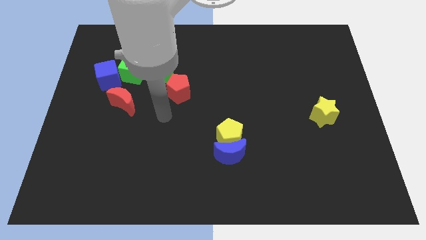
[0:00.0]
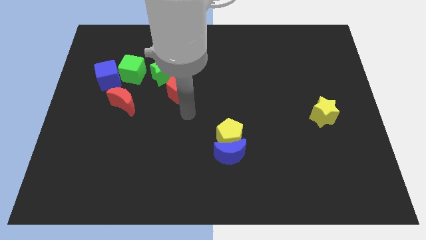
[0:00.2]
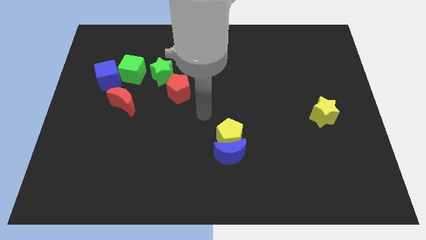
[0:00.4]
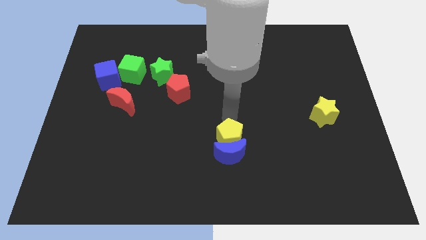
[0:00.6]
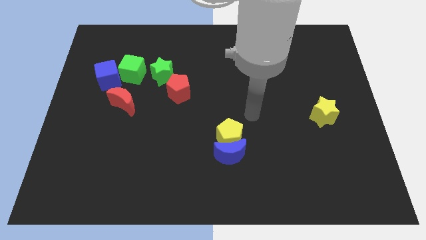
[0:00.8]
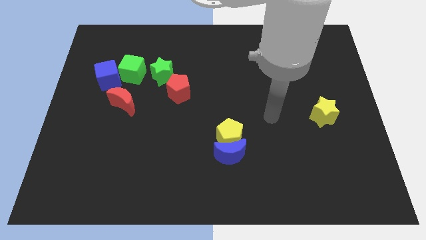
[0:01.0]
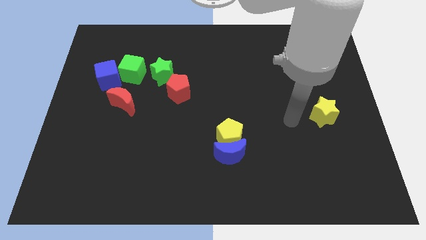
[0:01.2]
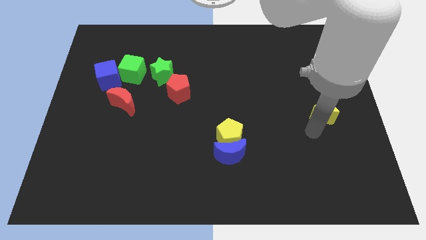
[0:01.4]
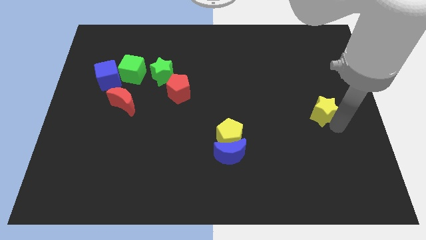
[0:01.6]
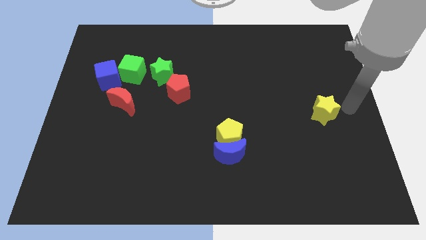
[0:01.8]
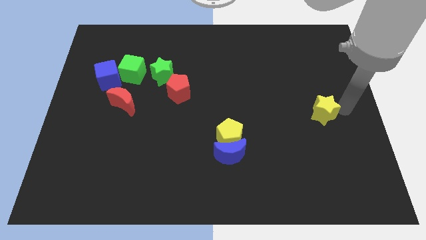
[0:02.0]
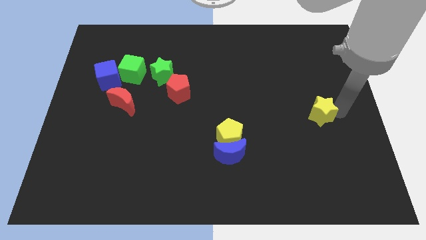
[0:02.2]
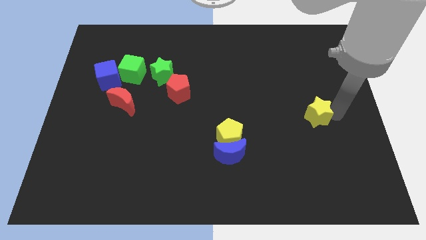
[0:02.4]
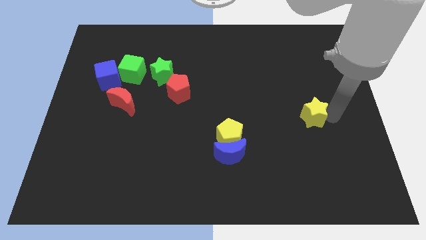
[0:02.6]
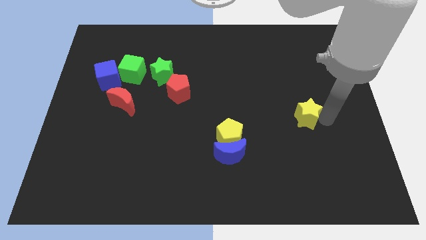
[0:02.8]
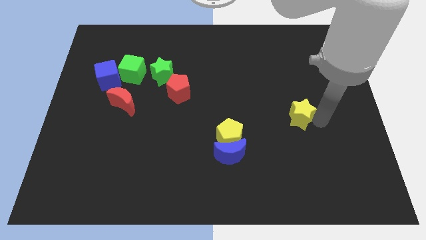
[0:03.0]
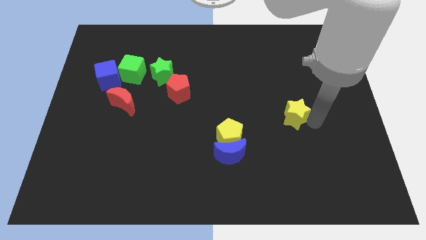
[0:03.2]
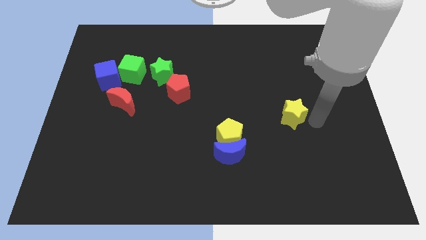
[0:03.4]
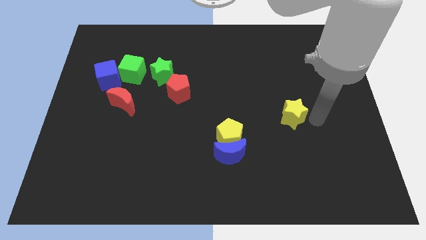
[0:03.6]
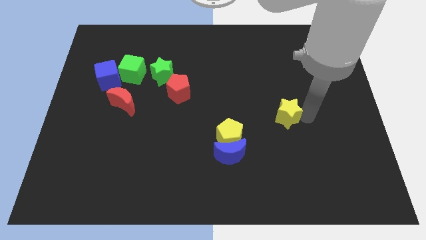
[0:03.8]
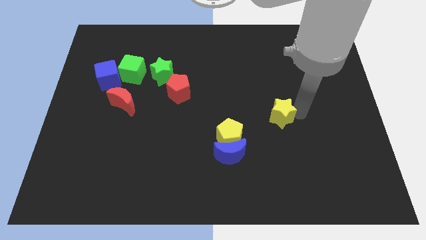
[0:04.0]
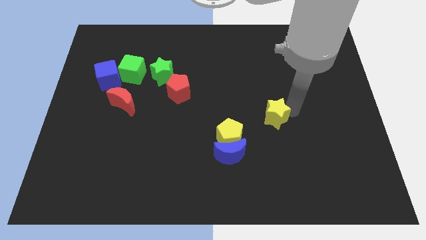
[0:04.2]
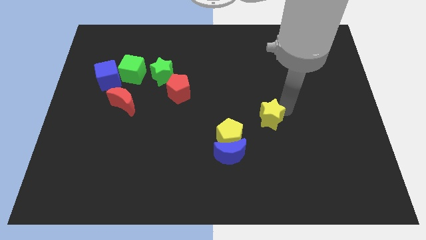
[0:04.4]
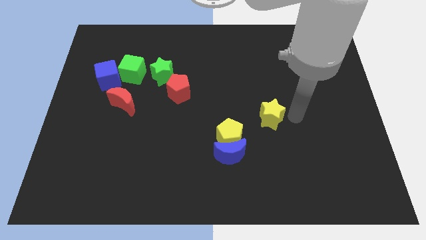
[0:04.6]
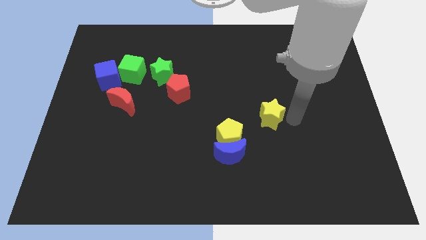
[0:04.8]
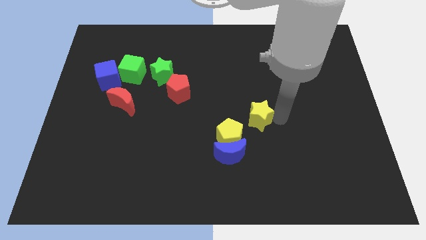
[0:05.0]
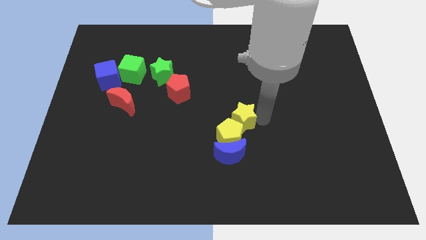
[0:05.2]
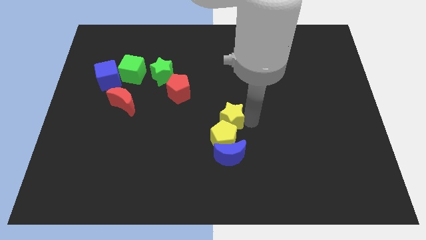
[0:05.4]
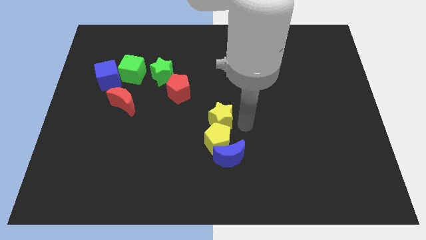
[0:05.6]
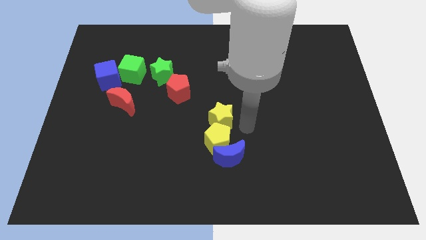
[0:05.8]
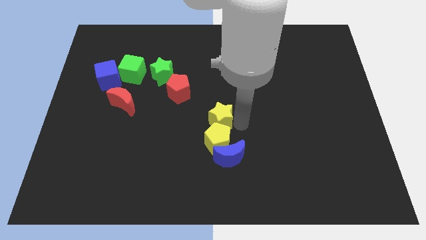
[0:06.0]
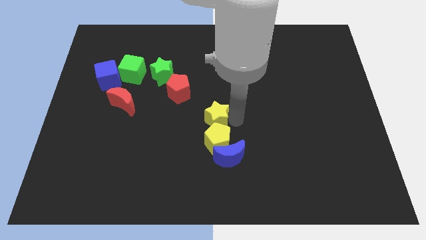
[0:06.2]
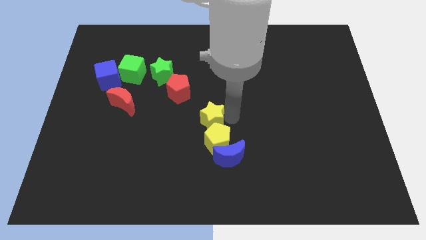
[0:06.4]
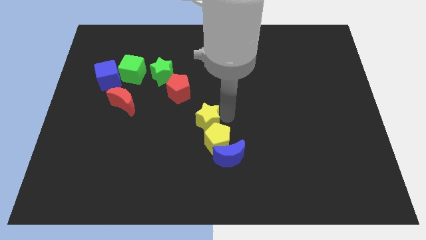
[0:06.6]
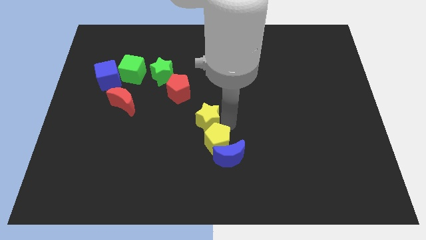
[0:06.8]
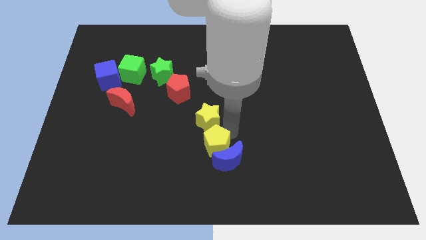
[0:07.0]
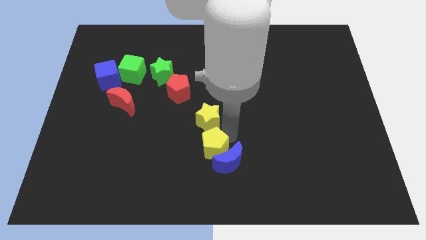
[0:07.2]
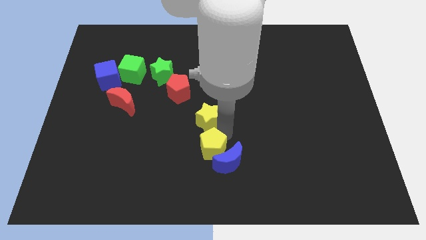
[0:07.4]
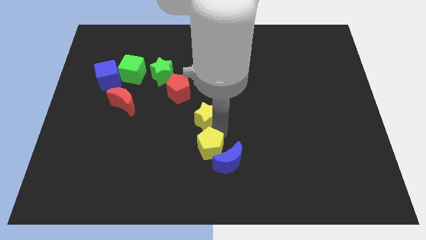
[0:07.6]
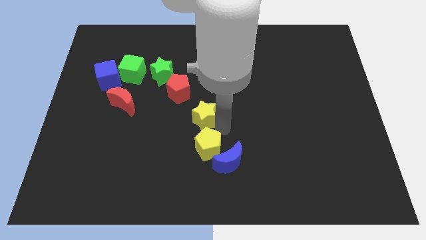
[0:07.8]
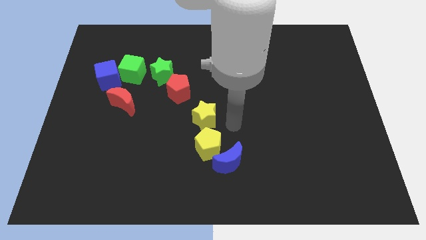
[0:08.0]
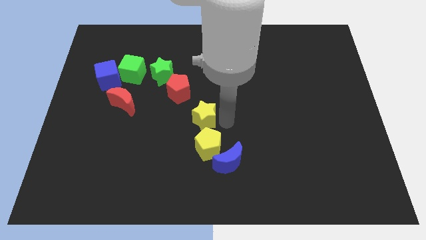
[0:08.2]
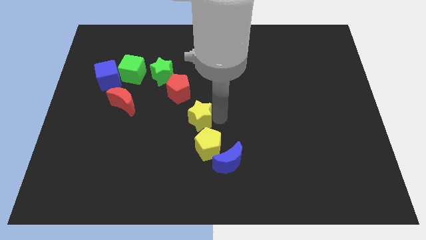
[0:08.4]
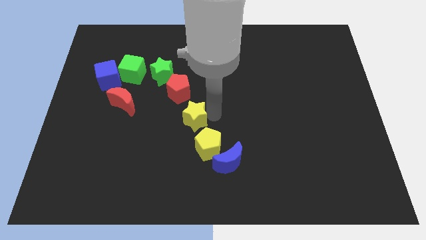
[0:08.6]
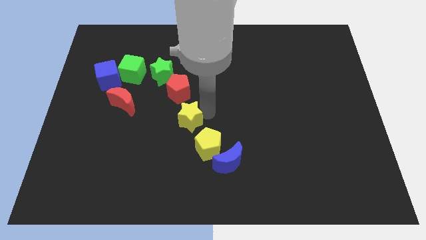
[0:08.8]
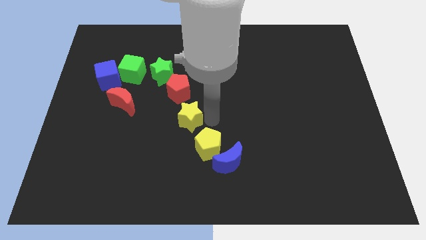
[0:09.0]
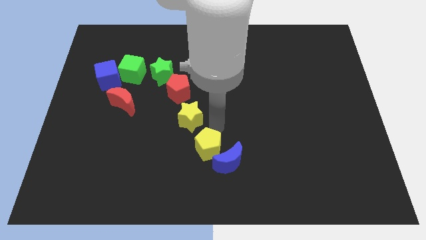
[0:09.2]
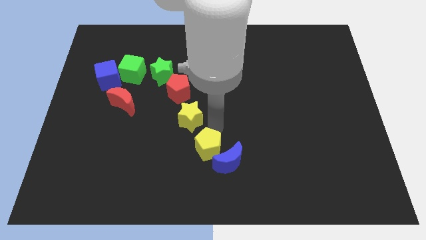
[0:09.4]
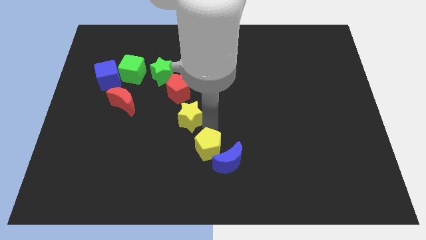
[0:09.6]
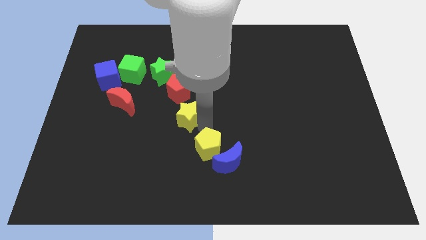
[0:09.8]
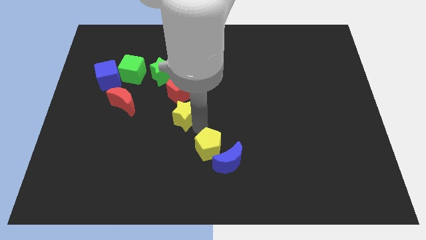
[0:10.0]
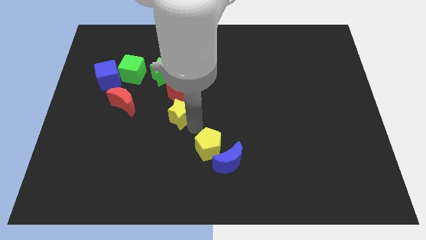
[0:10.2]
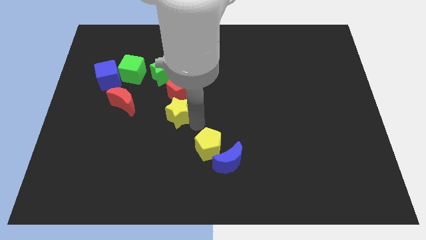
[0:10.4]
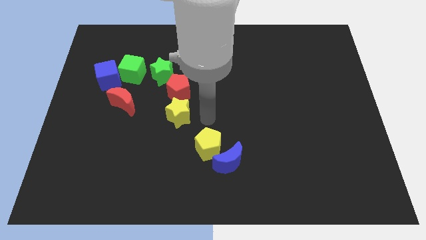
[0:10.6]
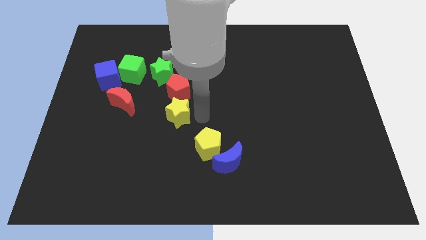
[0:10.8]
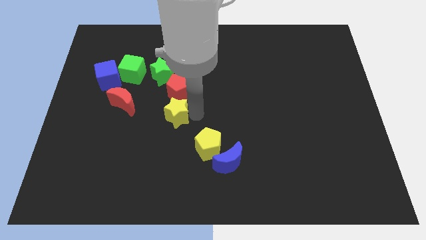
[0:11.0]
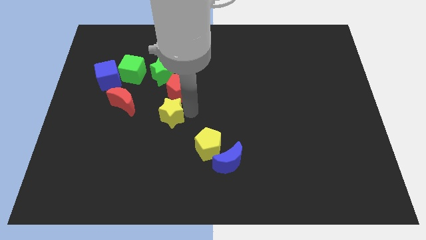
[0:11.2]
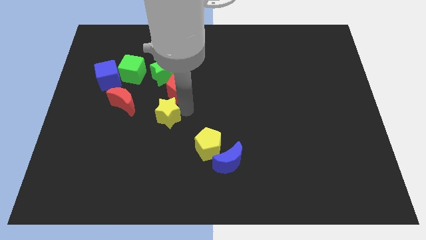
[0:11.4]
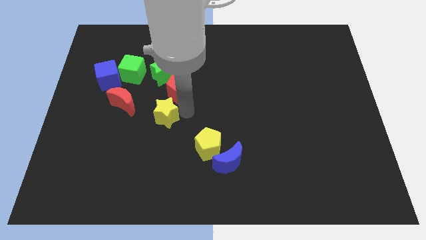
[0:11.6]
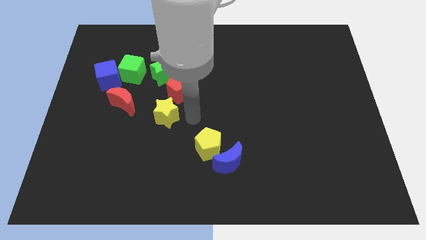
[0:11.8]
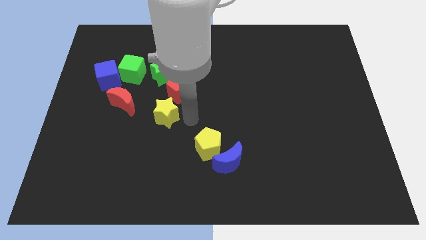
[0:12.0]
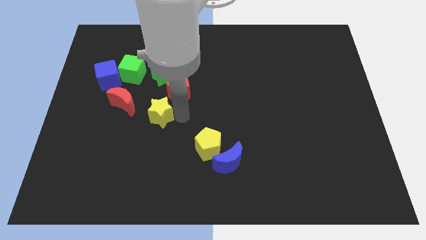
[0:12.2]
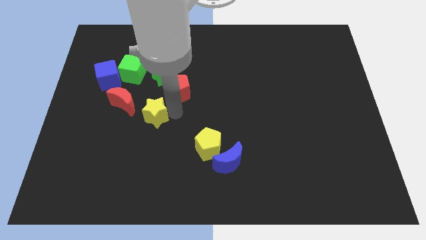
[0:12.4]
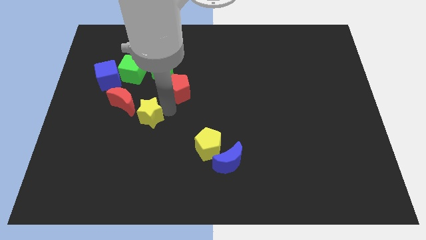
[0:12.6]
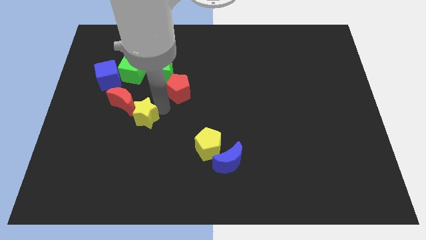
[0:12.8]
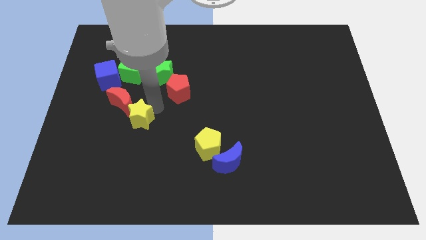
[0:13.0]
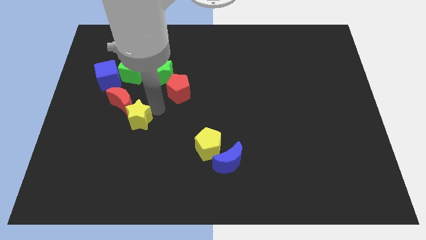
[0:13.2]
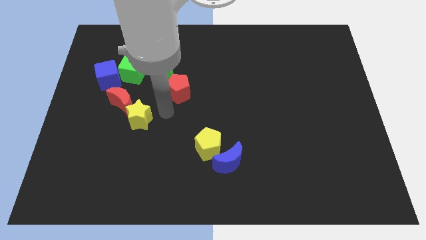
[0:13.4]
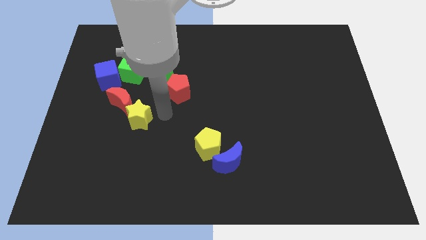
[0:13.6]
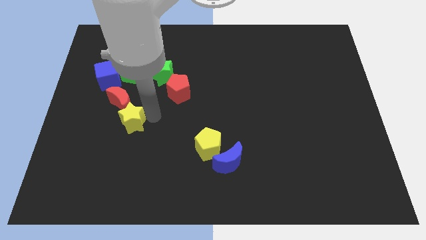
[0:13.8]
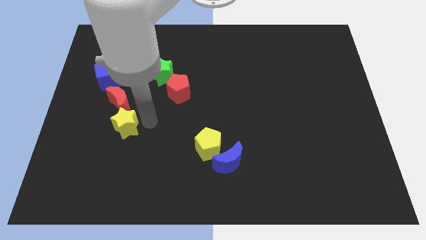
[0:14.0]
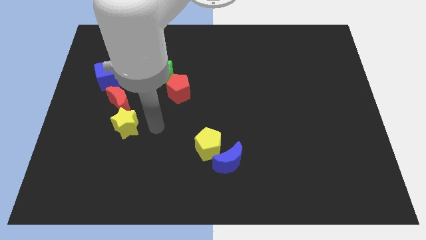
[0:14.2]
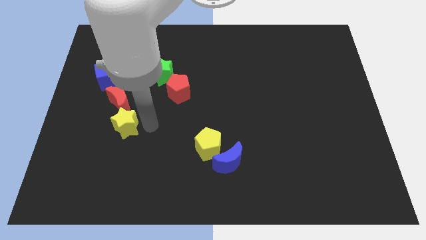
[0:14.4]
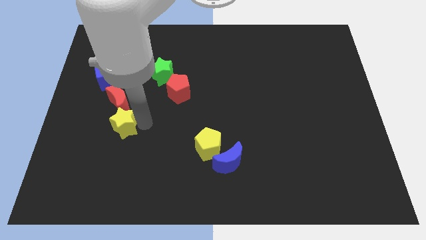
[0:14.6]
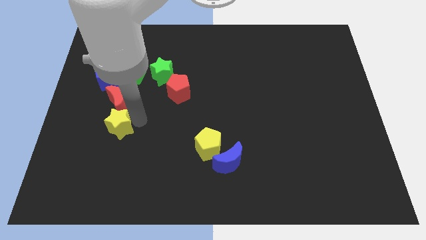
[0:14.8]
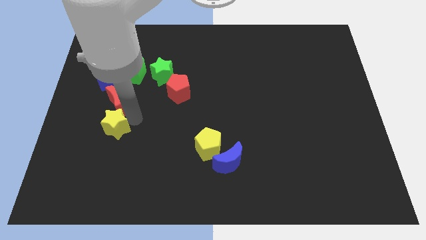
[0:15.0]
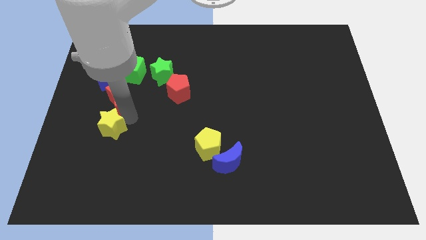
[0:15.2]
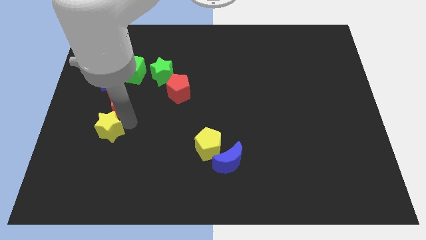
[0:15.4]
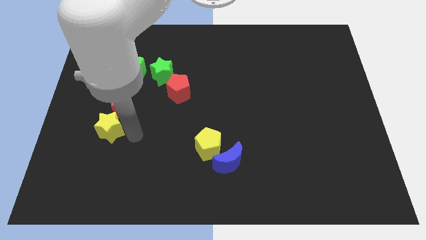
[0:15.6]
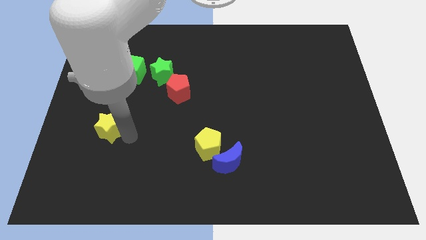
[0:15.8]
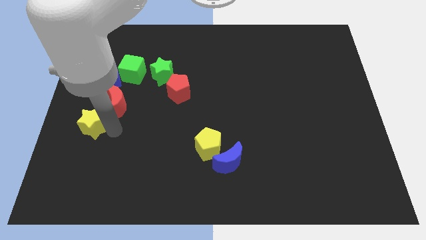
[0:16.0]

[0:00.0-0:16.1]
move the yellow star to the left side of the board
